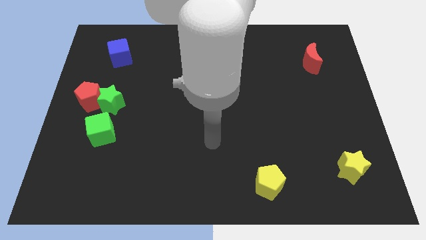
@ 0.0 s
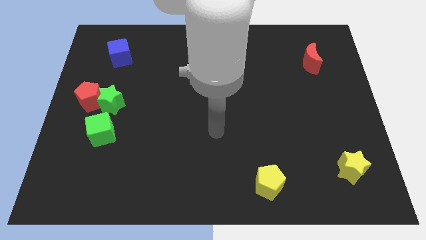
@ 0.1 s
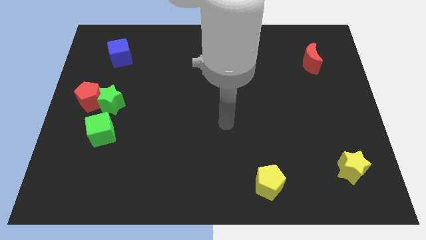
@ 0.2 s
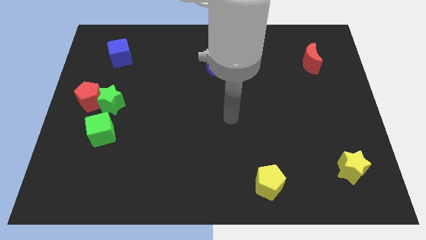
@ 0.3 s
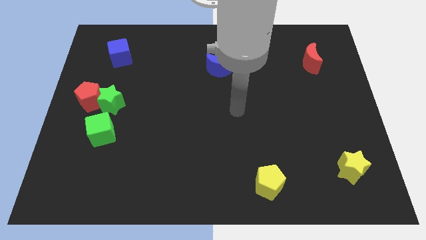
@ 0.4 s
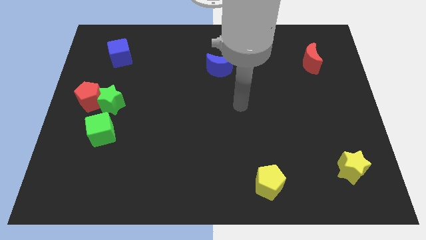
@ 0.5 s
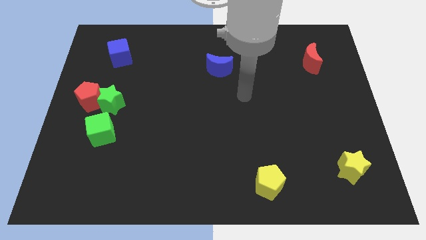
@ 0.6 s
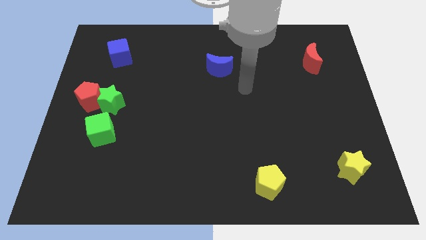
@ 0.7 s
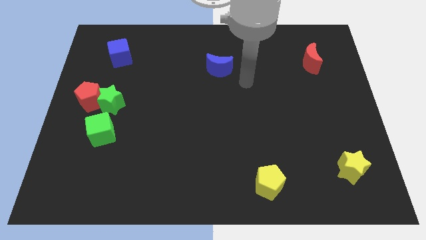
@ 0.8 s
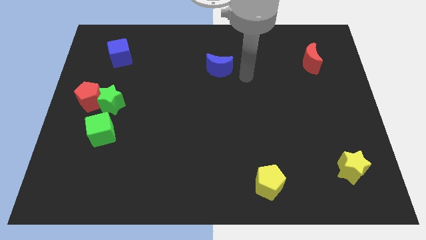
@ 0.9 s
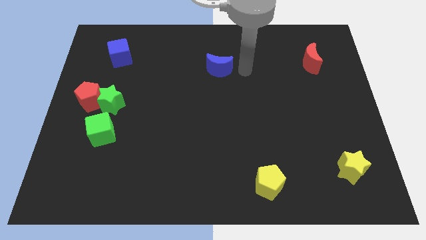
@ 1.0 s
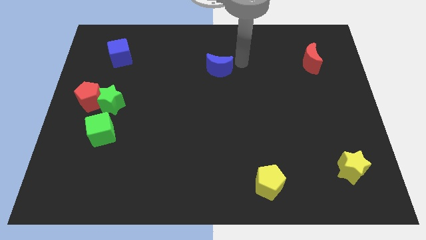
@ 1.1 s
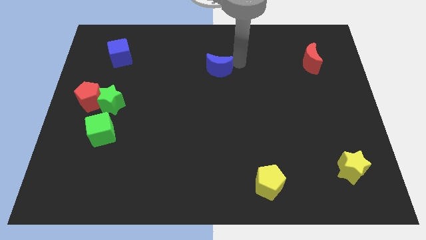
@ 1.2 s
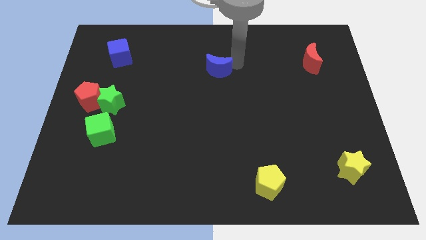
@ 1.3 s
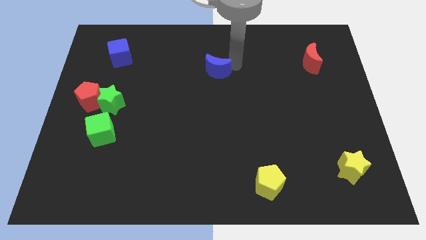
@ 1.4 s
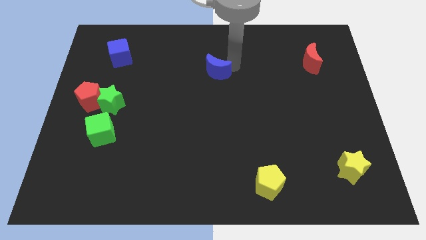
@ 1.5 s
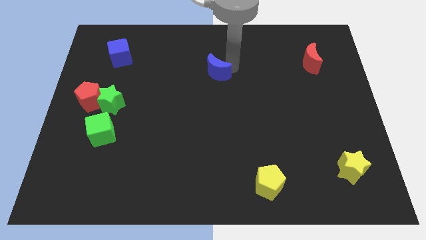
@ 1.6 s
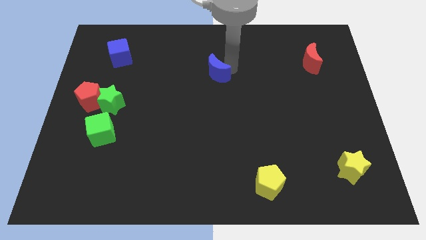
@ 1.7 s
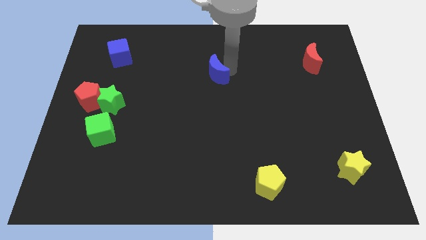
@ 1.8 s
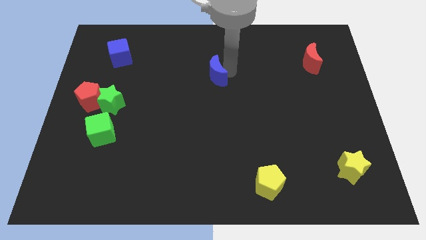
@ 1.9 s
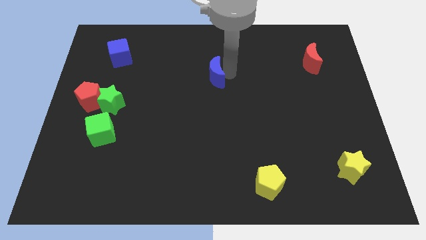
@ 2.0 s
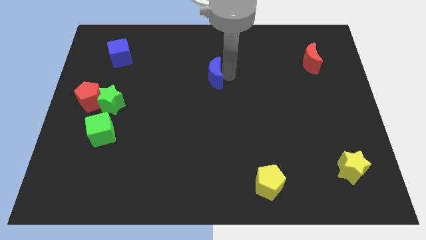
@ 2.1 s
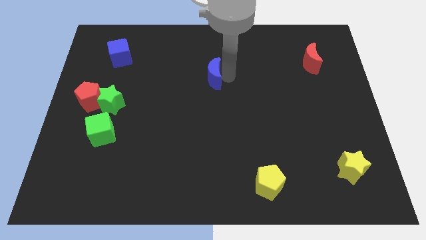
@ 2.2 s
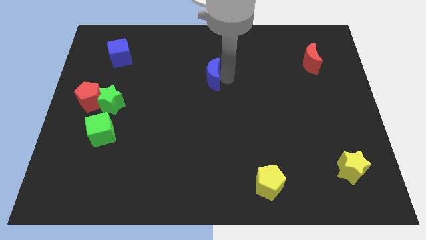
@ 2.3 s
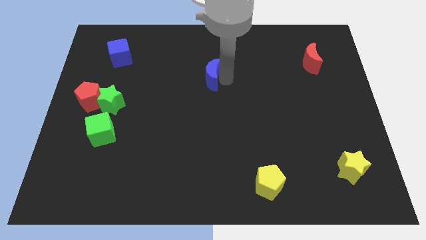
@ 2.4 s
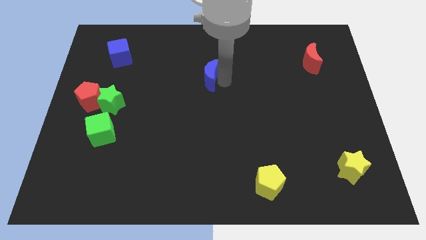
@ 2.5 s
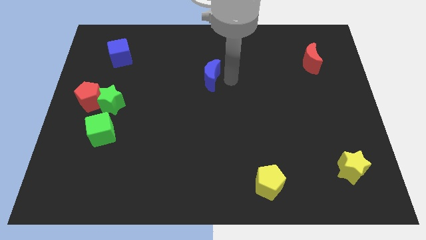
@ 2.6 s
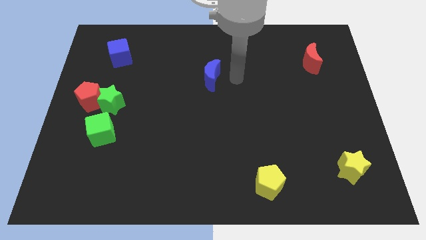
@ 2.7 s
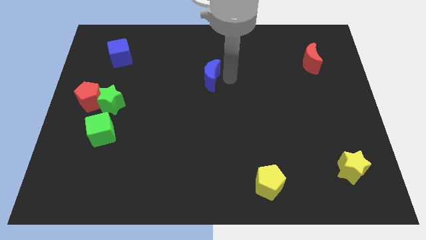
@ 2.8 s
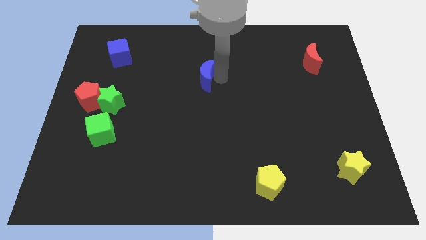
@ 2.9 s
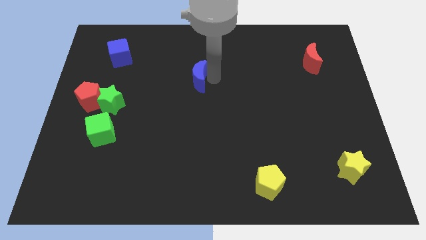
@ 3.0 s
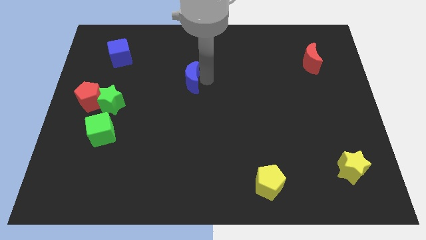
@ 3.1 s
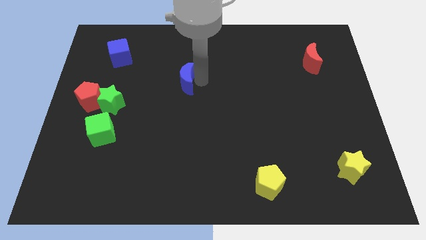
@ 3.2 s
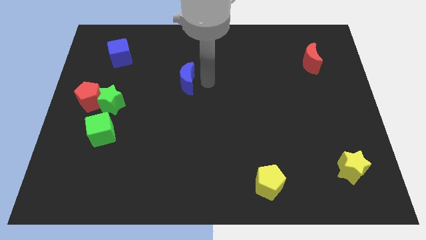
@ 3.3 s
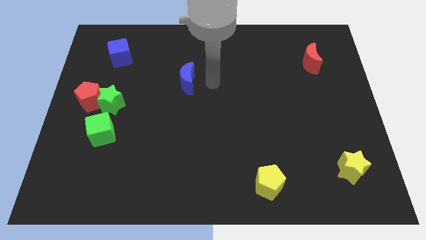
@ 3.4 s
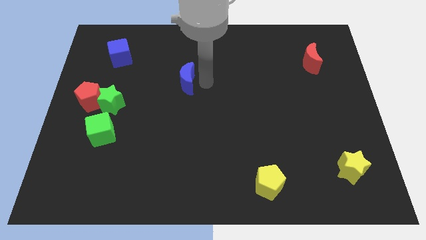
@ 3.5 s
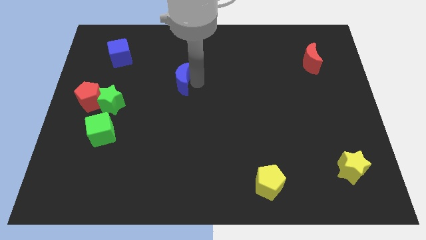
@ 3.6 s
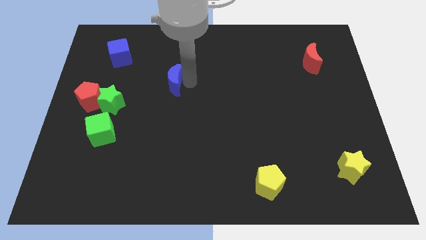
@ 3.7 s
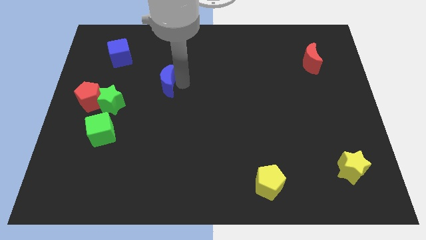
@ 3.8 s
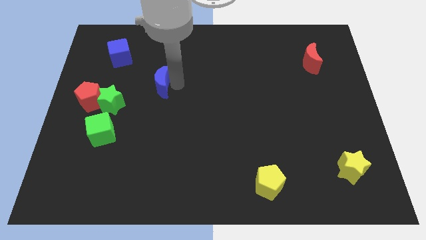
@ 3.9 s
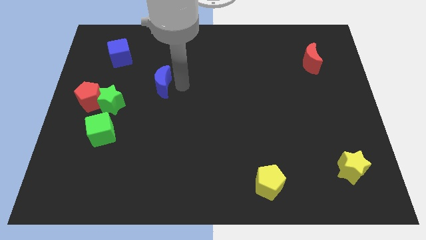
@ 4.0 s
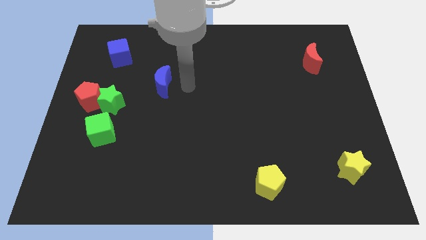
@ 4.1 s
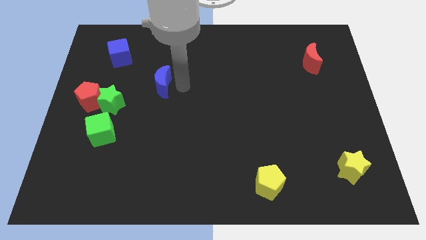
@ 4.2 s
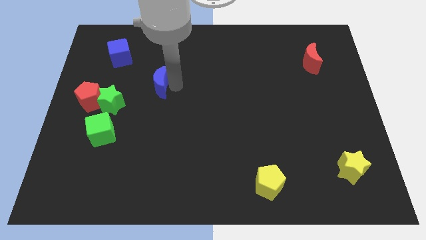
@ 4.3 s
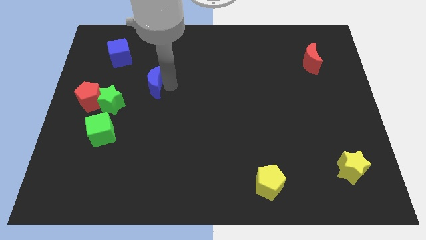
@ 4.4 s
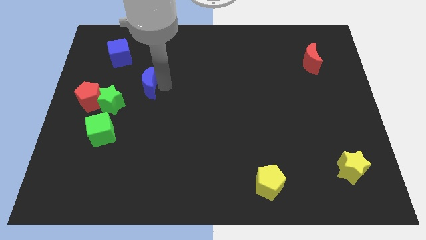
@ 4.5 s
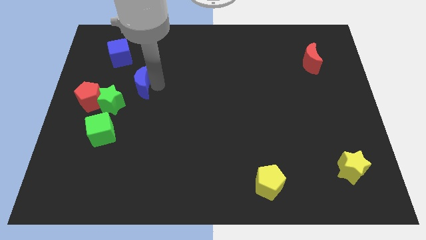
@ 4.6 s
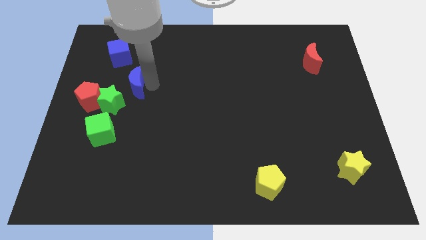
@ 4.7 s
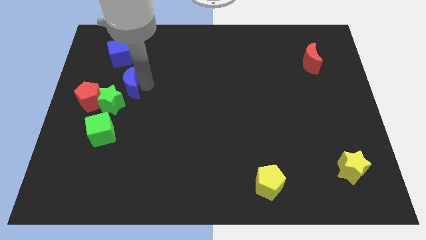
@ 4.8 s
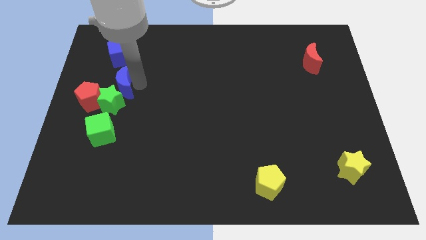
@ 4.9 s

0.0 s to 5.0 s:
push the blue moon to the top of the green cube

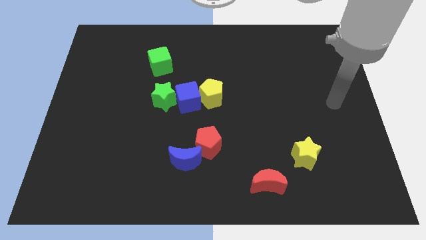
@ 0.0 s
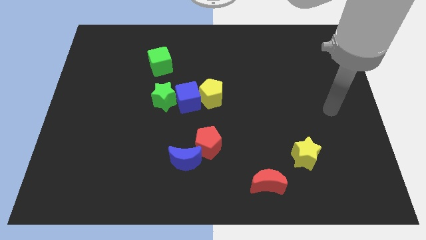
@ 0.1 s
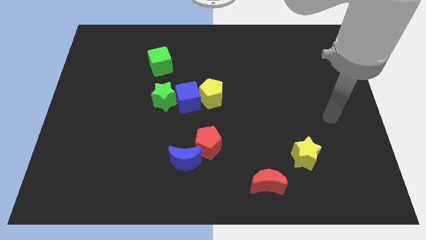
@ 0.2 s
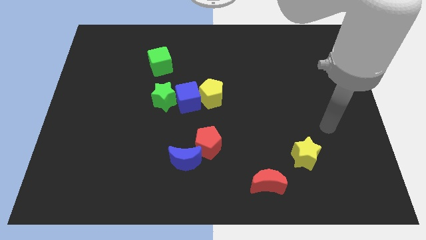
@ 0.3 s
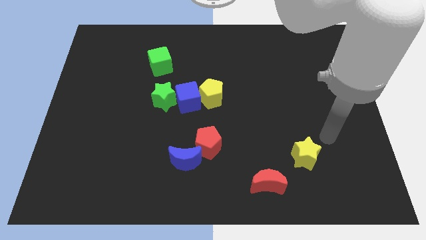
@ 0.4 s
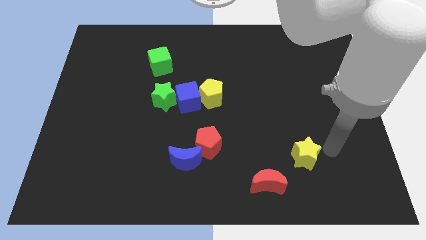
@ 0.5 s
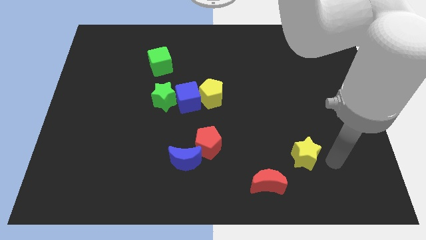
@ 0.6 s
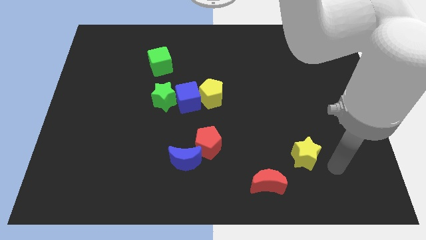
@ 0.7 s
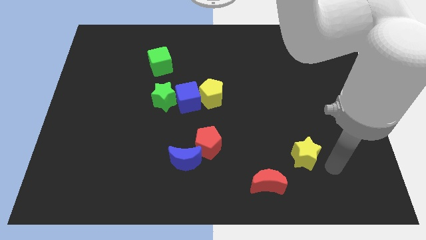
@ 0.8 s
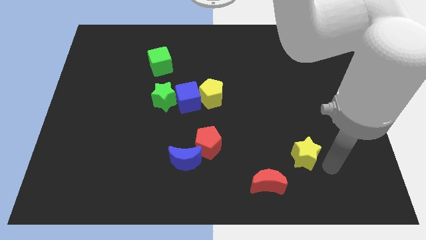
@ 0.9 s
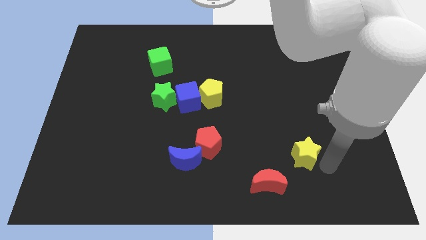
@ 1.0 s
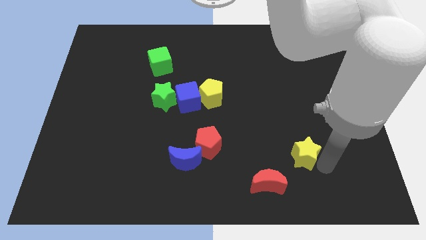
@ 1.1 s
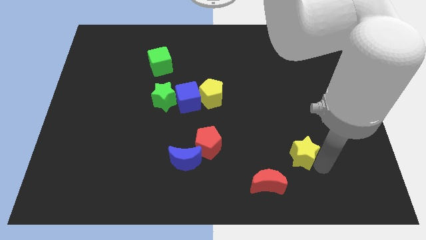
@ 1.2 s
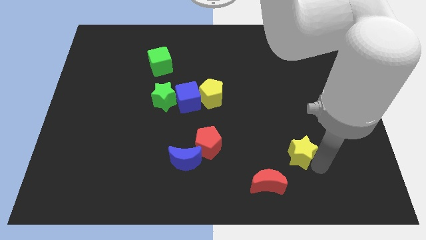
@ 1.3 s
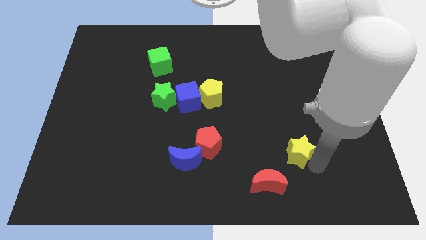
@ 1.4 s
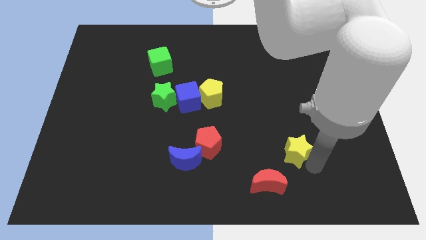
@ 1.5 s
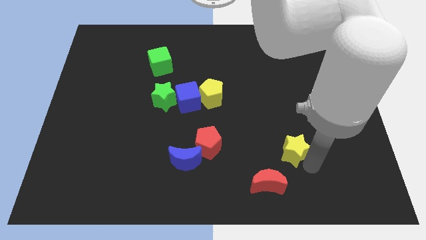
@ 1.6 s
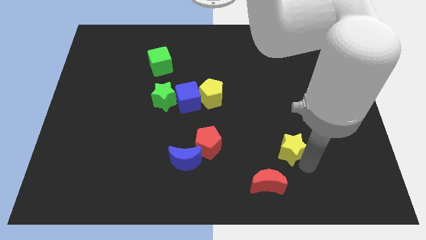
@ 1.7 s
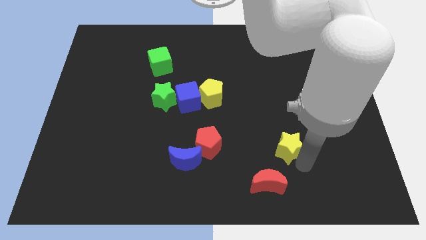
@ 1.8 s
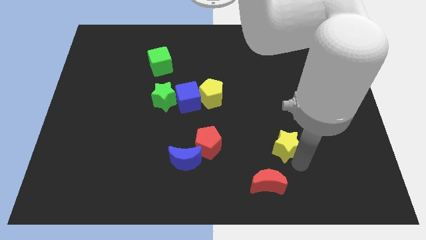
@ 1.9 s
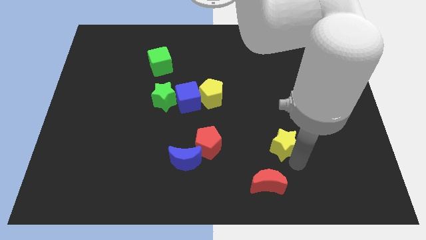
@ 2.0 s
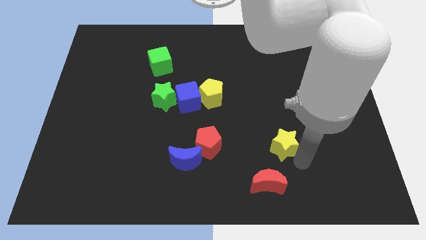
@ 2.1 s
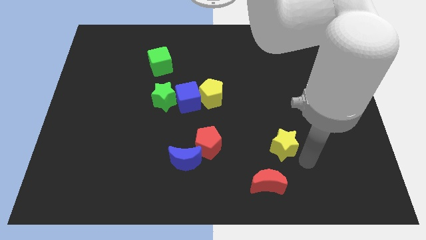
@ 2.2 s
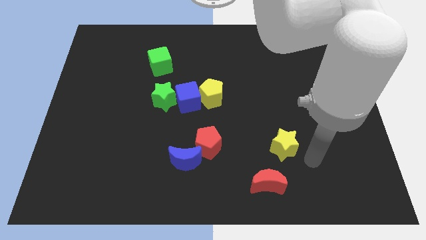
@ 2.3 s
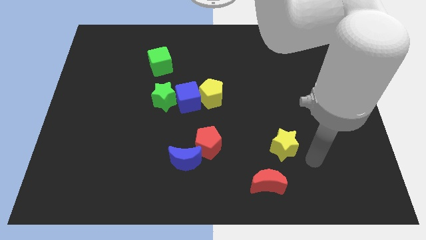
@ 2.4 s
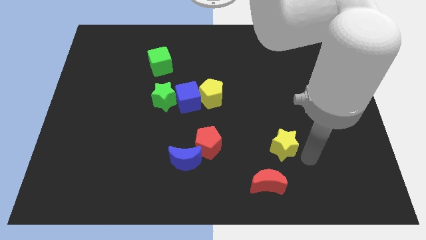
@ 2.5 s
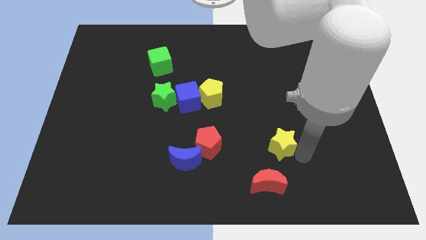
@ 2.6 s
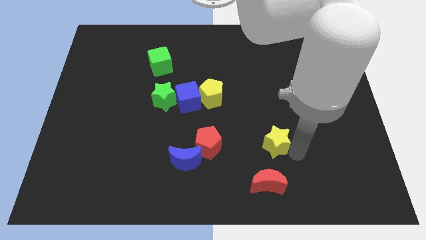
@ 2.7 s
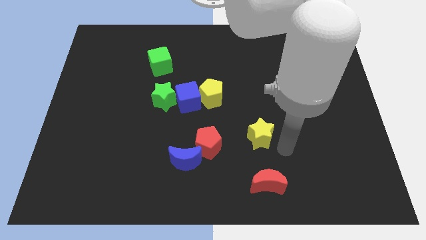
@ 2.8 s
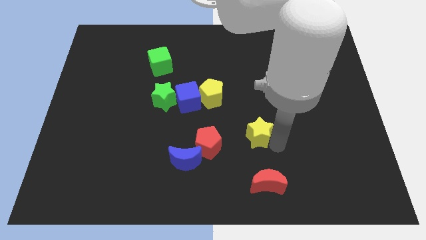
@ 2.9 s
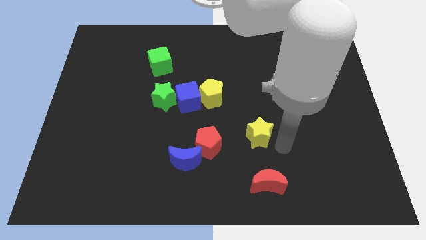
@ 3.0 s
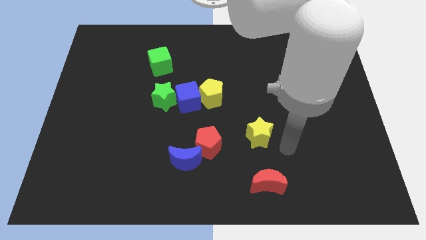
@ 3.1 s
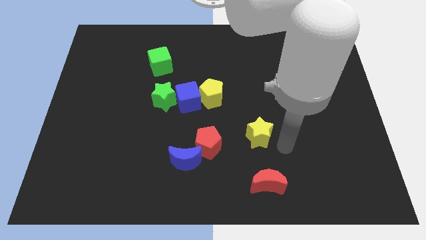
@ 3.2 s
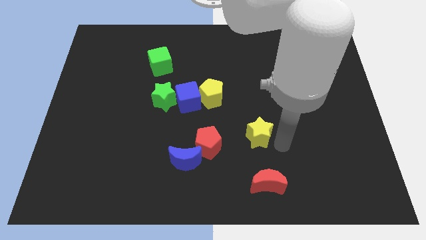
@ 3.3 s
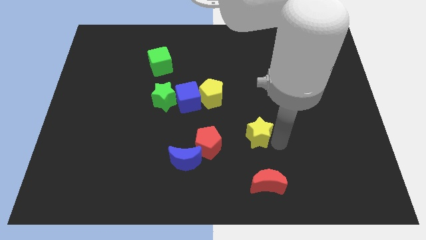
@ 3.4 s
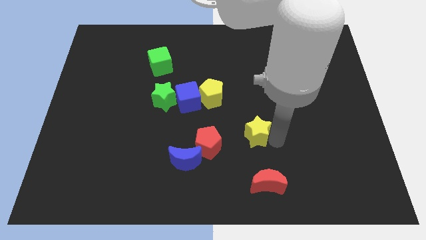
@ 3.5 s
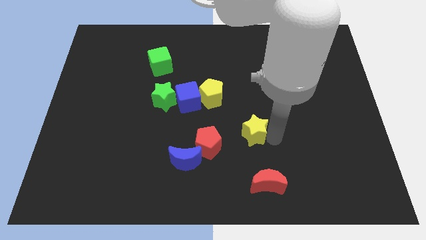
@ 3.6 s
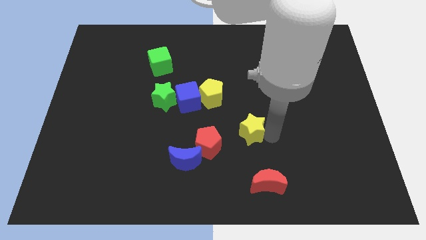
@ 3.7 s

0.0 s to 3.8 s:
move the yellow star to the top right of the red pentagon
